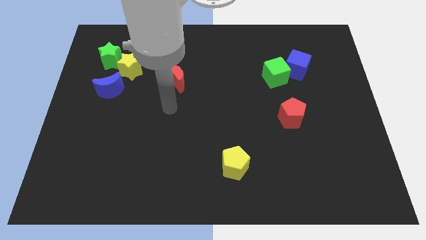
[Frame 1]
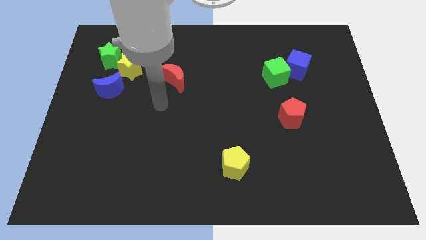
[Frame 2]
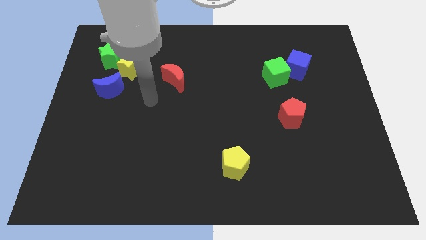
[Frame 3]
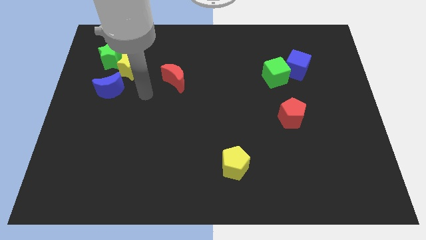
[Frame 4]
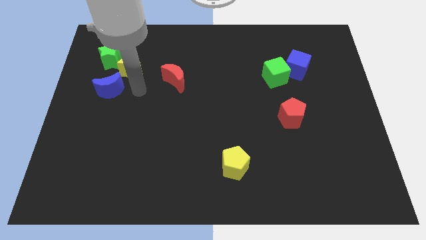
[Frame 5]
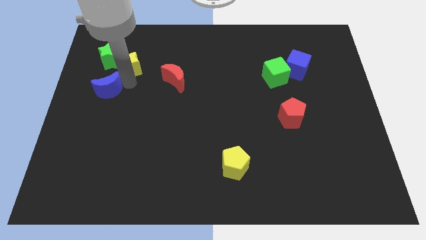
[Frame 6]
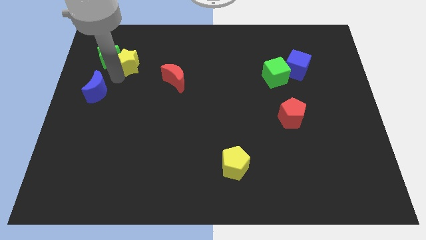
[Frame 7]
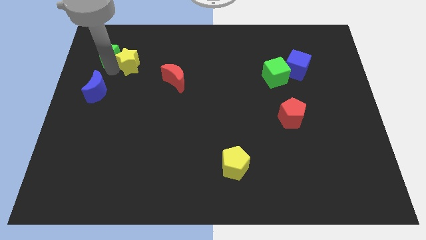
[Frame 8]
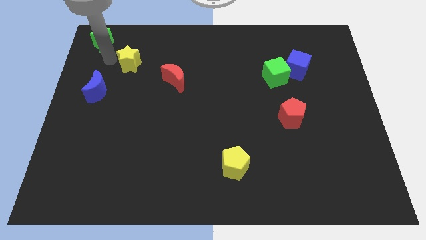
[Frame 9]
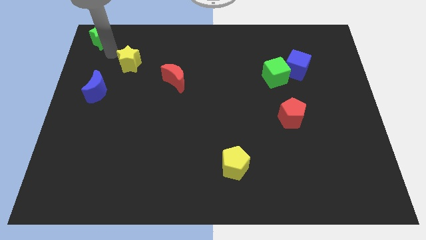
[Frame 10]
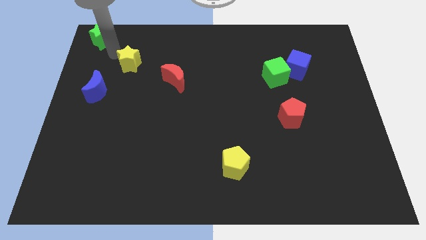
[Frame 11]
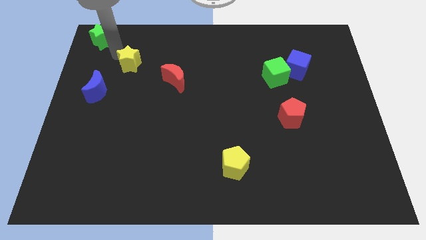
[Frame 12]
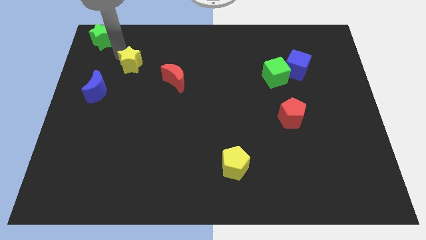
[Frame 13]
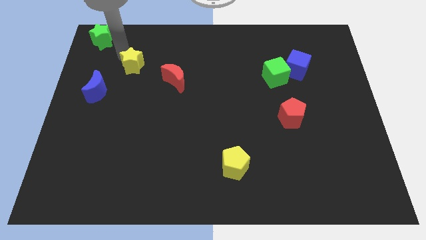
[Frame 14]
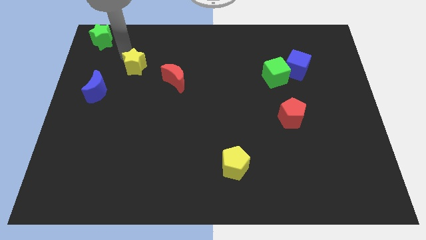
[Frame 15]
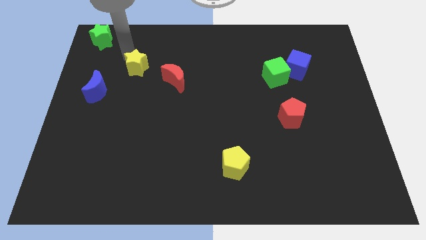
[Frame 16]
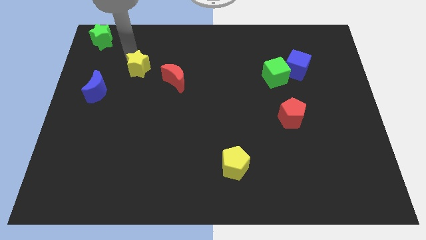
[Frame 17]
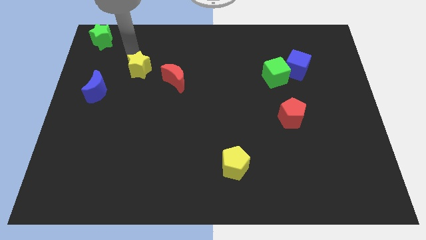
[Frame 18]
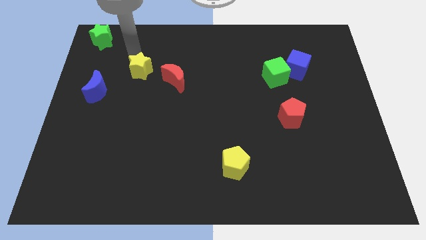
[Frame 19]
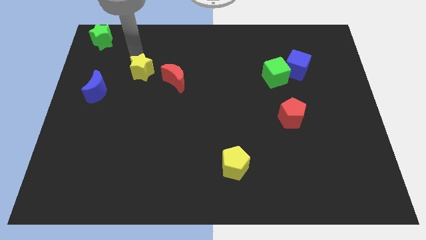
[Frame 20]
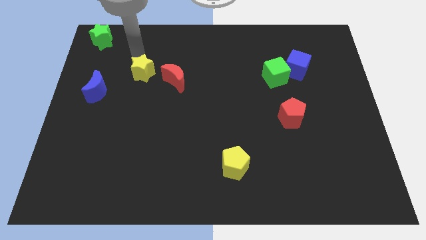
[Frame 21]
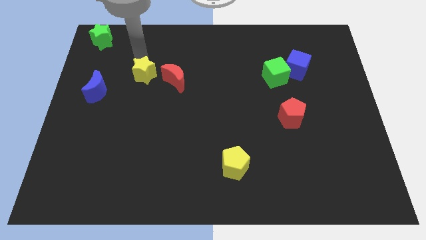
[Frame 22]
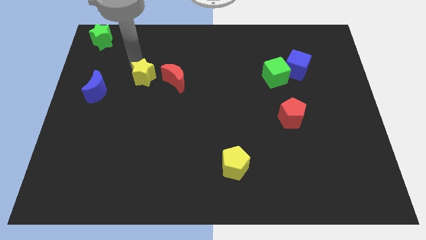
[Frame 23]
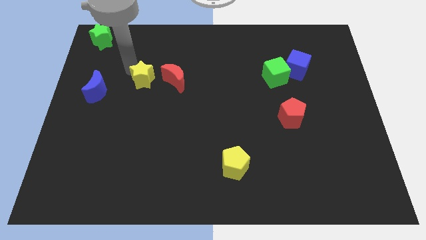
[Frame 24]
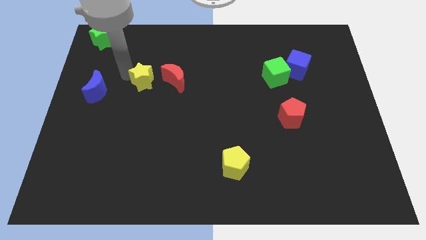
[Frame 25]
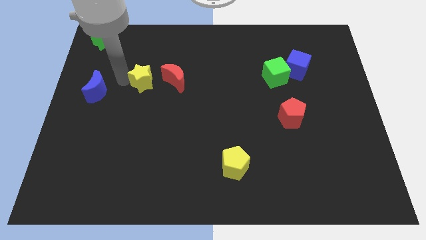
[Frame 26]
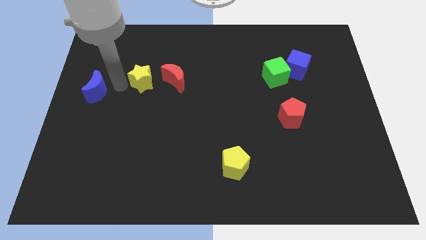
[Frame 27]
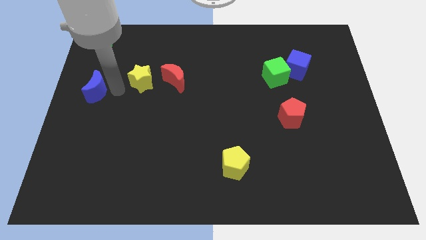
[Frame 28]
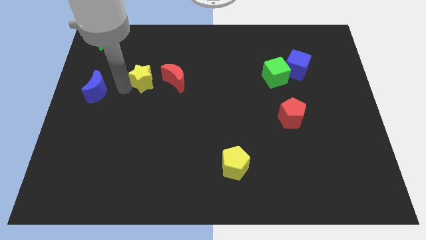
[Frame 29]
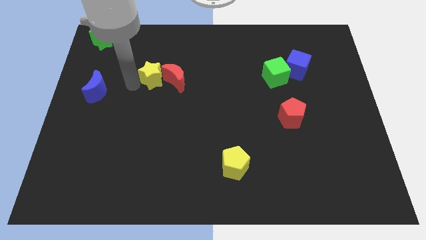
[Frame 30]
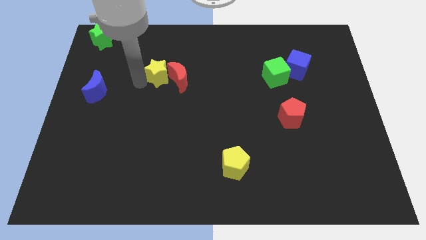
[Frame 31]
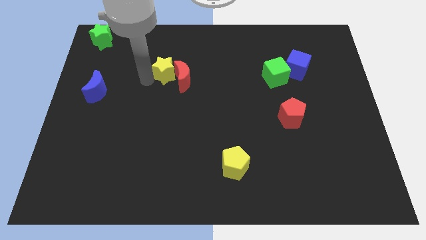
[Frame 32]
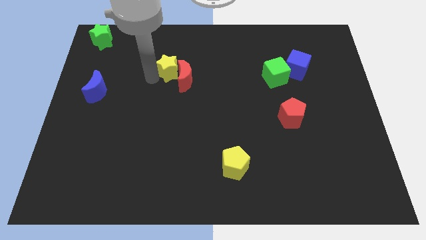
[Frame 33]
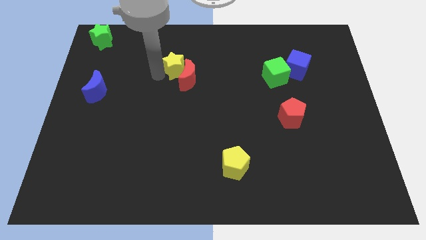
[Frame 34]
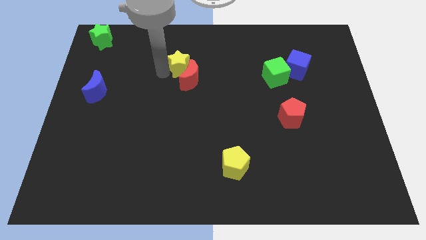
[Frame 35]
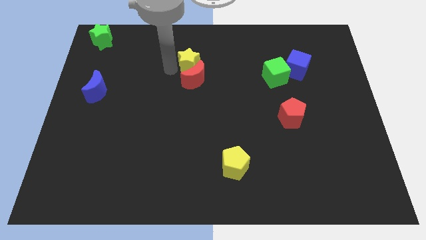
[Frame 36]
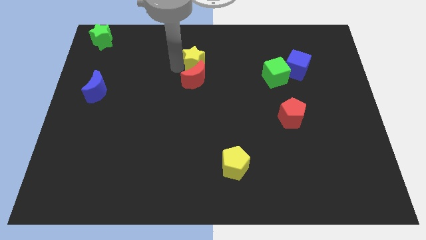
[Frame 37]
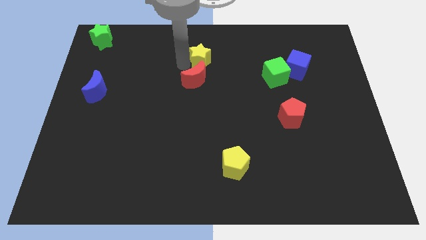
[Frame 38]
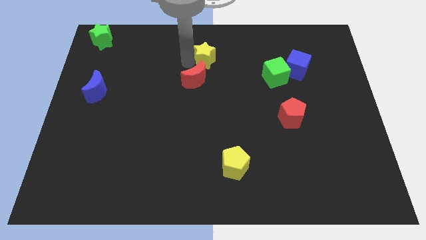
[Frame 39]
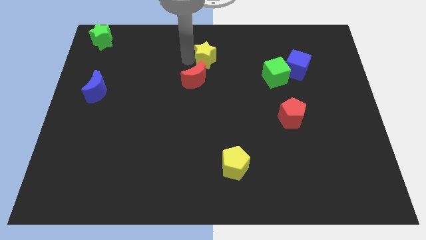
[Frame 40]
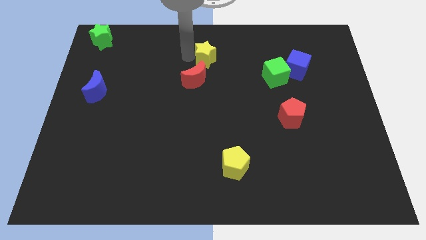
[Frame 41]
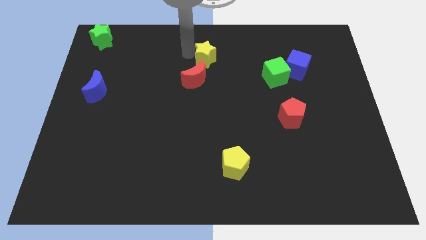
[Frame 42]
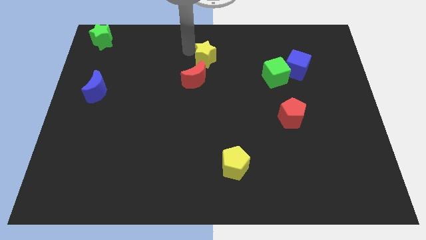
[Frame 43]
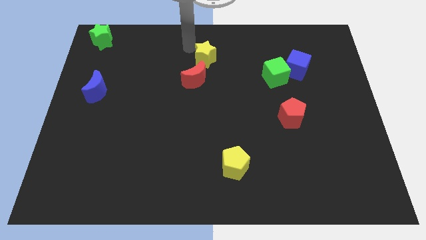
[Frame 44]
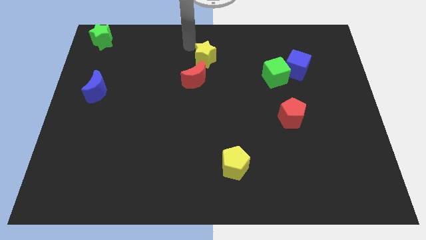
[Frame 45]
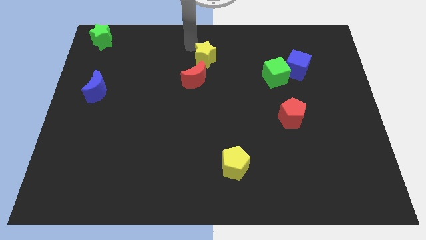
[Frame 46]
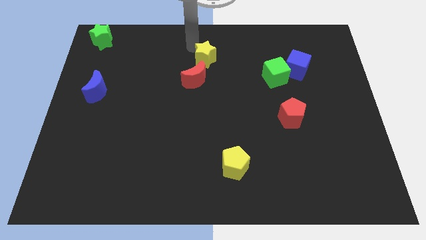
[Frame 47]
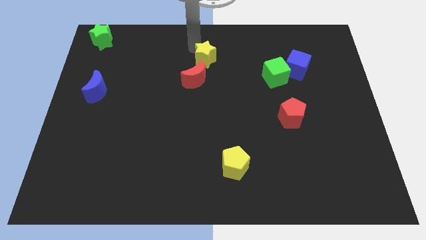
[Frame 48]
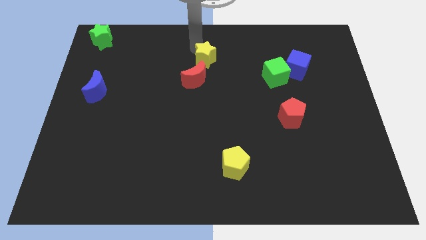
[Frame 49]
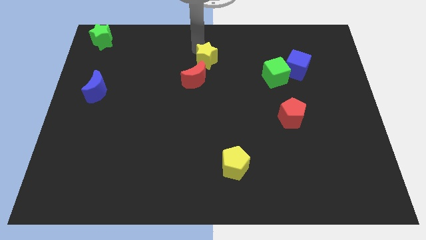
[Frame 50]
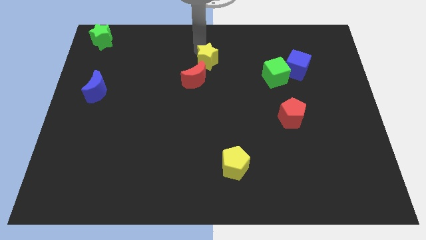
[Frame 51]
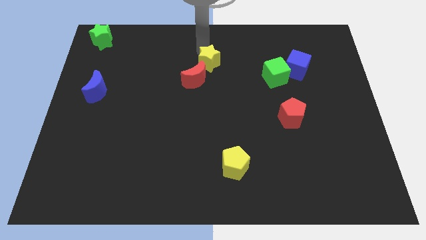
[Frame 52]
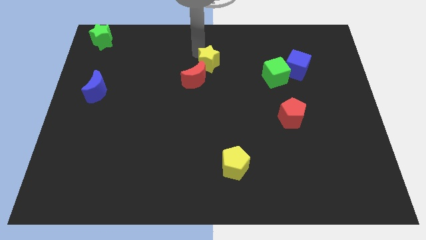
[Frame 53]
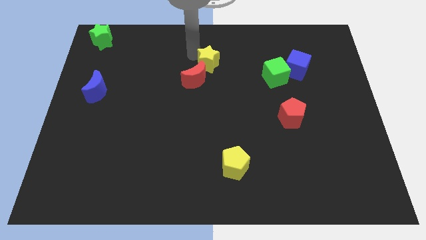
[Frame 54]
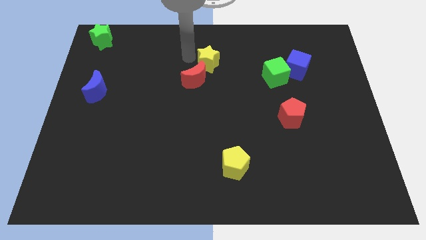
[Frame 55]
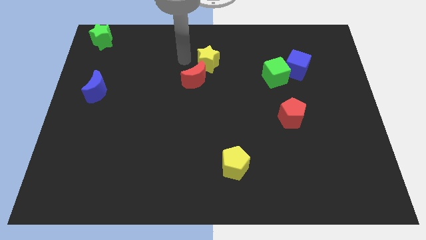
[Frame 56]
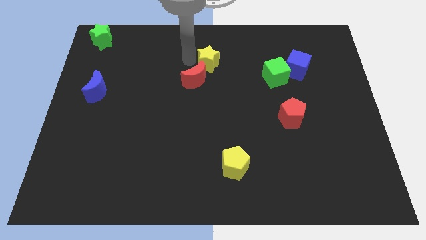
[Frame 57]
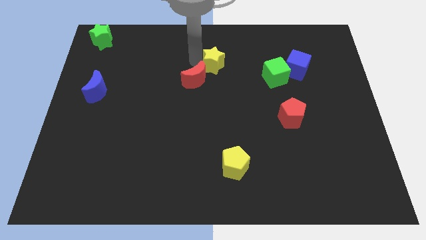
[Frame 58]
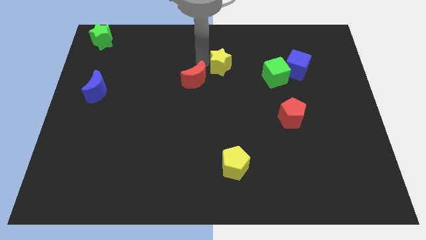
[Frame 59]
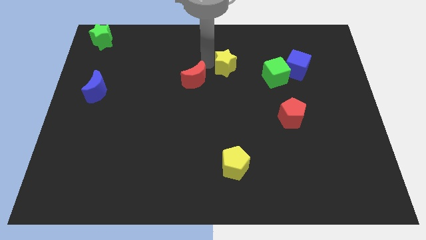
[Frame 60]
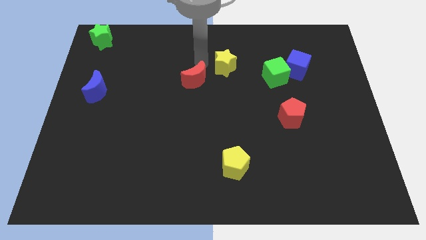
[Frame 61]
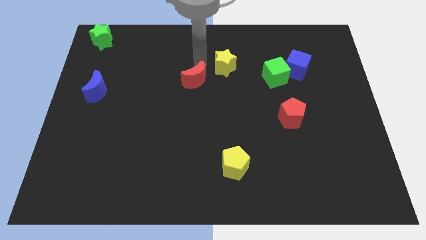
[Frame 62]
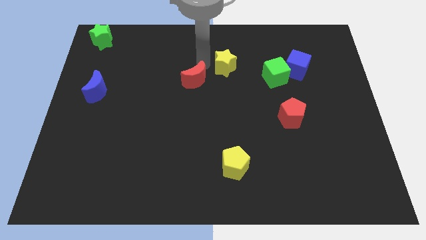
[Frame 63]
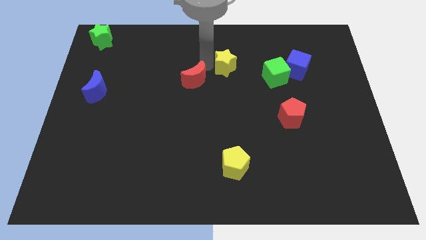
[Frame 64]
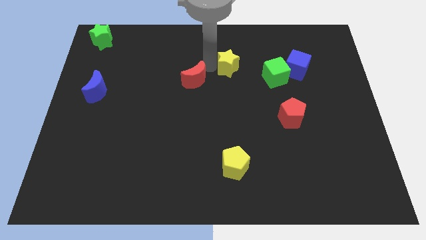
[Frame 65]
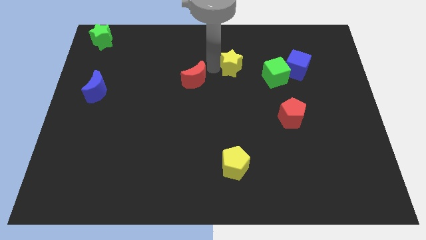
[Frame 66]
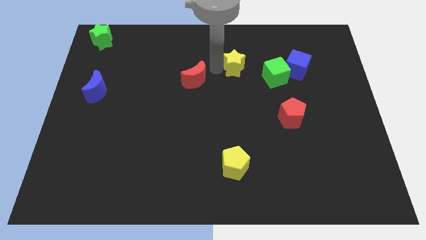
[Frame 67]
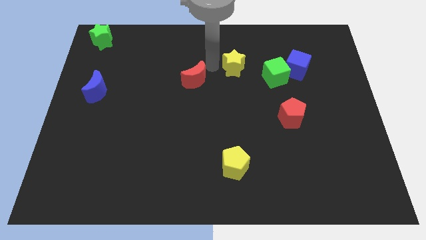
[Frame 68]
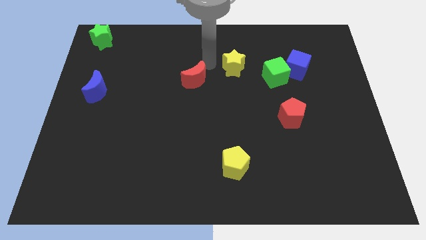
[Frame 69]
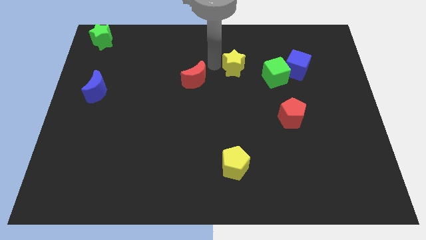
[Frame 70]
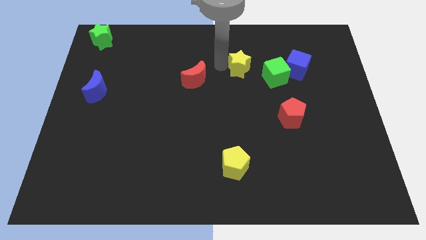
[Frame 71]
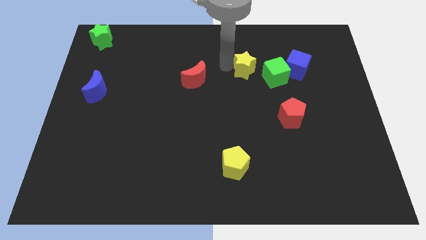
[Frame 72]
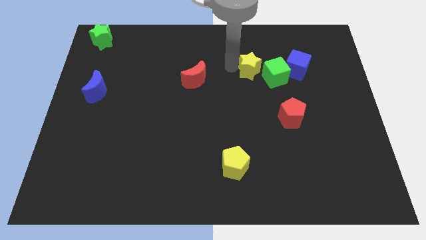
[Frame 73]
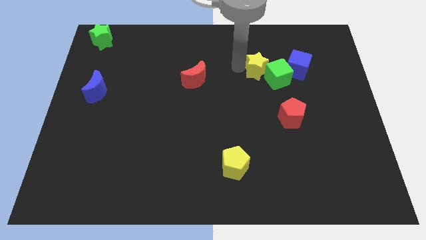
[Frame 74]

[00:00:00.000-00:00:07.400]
put the yellow star next to the green cube
